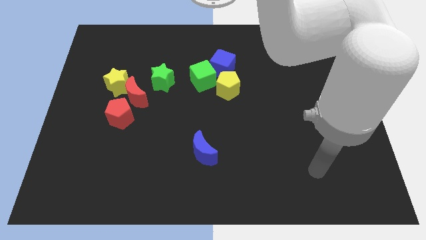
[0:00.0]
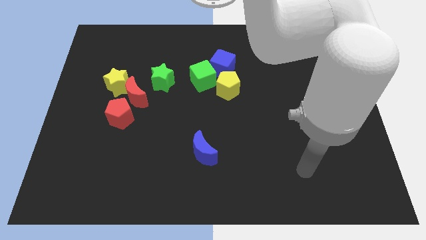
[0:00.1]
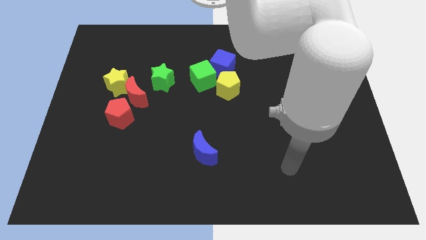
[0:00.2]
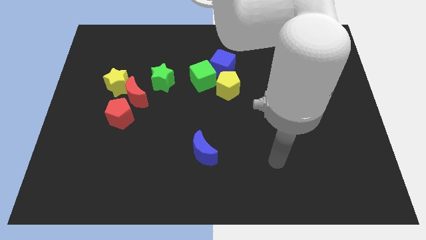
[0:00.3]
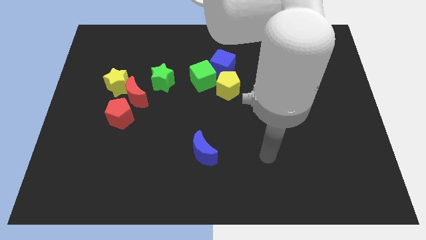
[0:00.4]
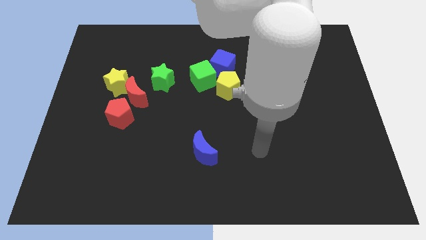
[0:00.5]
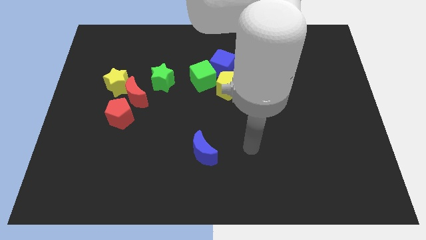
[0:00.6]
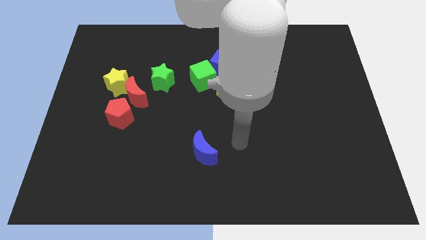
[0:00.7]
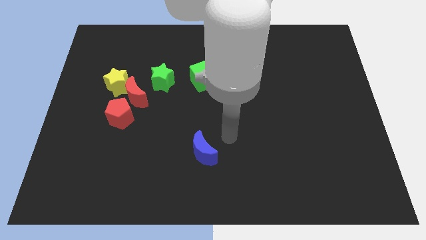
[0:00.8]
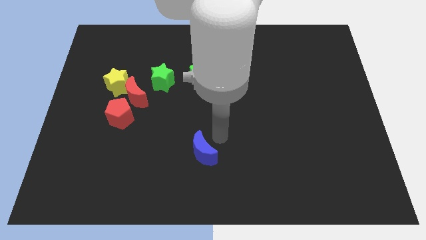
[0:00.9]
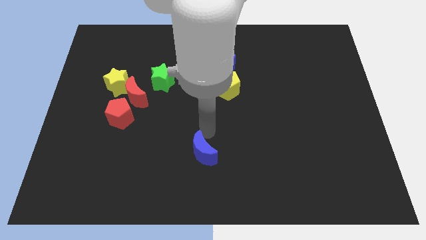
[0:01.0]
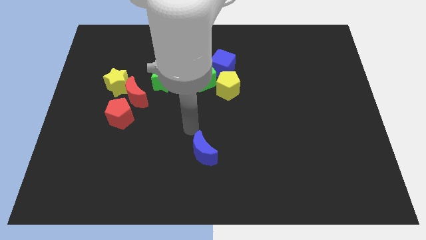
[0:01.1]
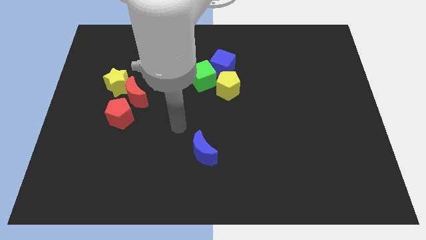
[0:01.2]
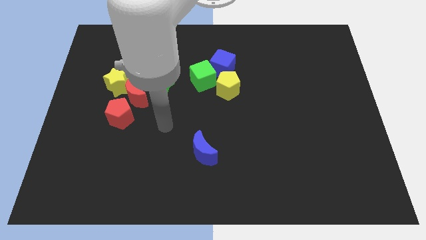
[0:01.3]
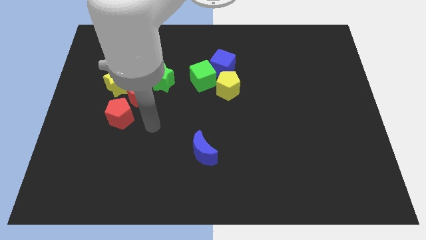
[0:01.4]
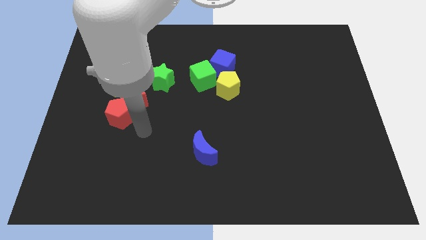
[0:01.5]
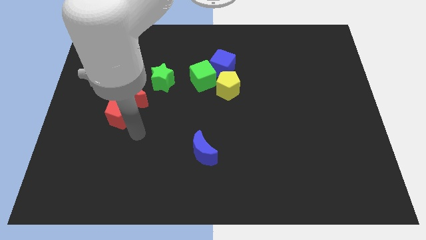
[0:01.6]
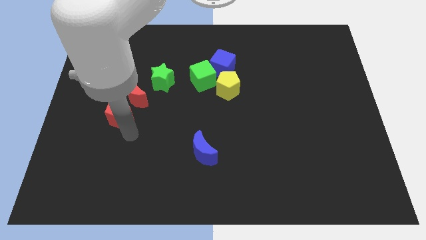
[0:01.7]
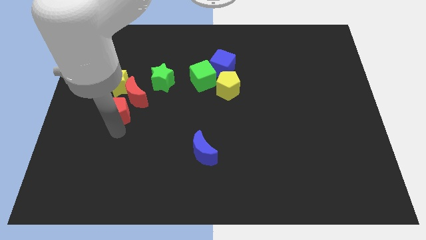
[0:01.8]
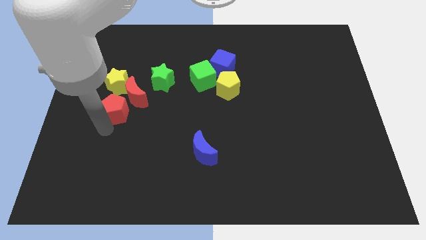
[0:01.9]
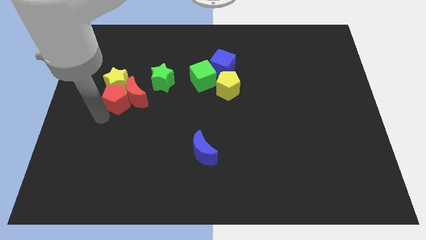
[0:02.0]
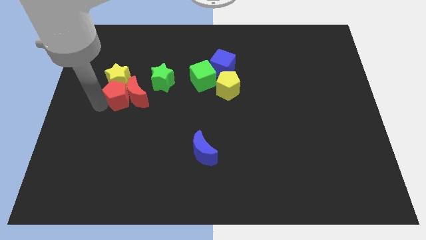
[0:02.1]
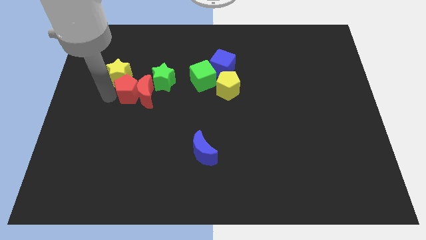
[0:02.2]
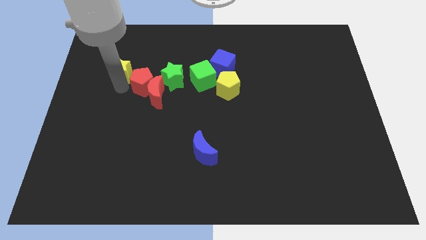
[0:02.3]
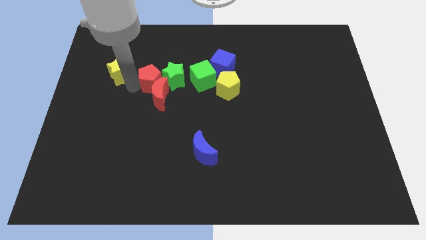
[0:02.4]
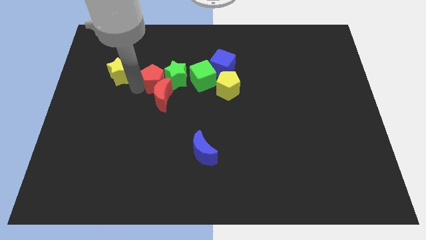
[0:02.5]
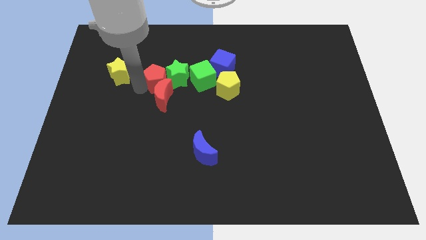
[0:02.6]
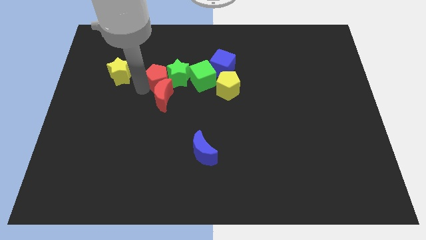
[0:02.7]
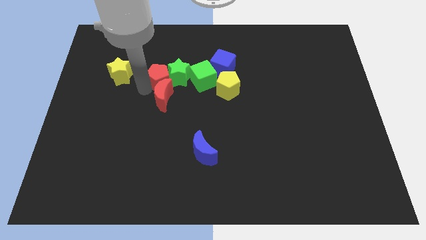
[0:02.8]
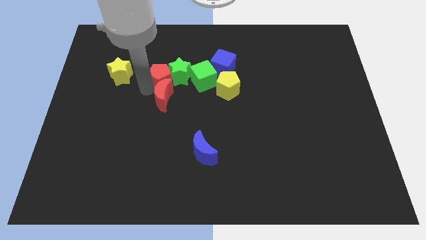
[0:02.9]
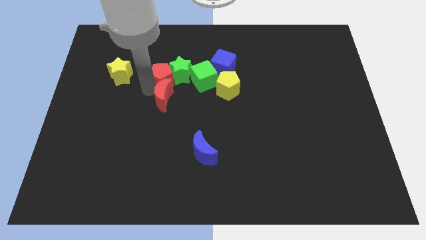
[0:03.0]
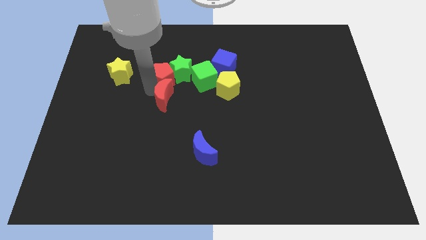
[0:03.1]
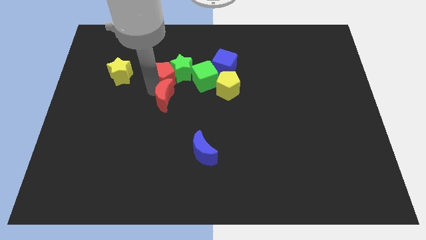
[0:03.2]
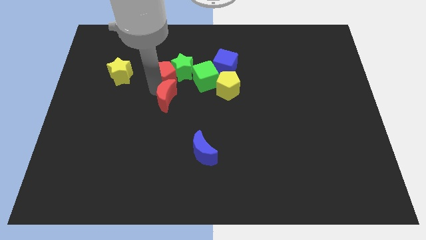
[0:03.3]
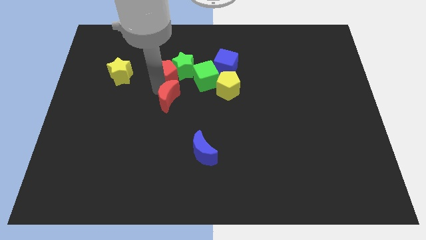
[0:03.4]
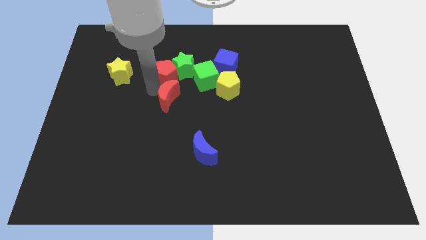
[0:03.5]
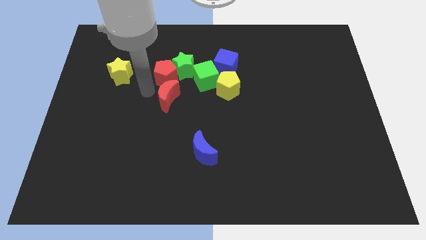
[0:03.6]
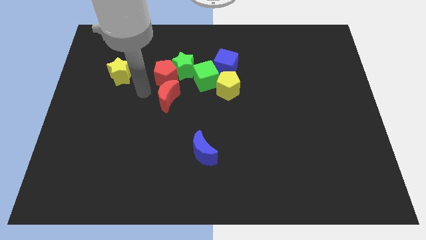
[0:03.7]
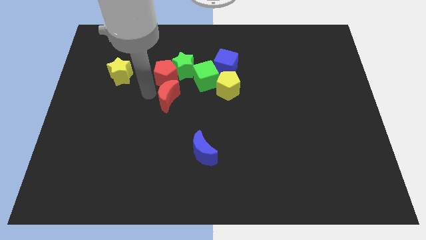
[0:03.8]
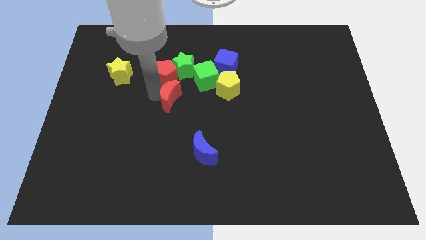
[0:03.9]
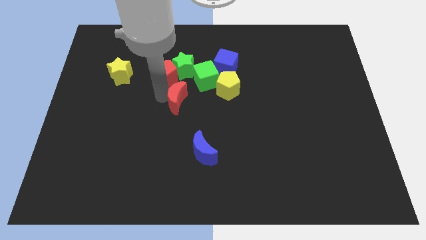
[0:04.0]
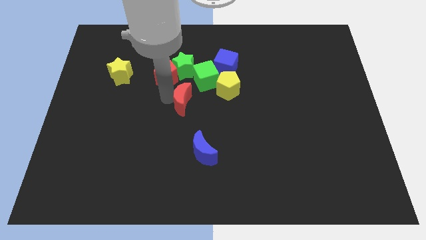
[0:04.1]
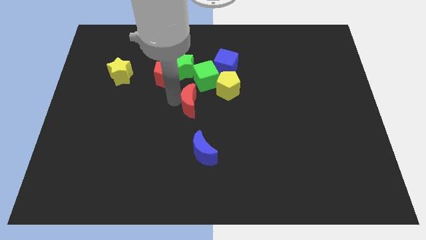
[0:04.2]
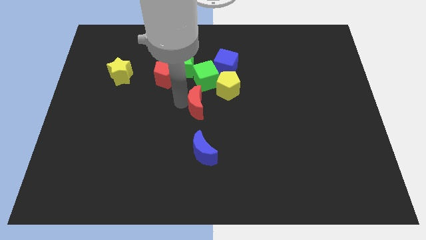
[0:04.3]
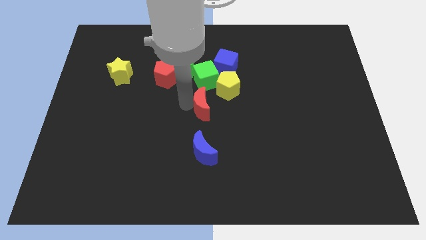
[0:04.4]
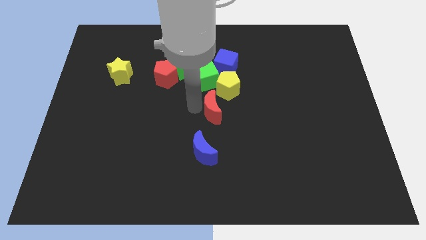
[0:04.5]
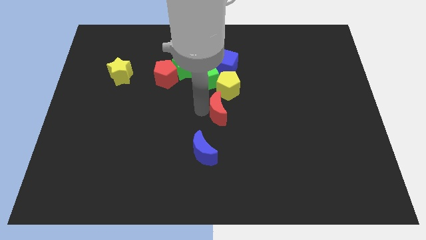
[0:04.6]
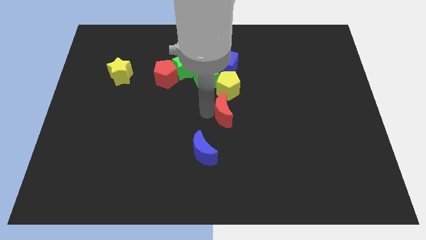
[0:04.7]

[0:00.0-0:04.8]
slide the red moon to the right

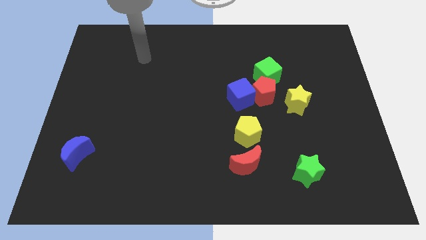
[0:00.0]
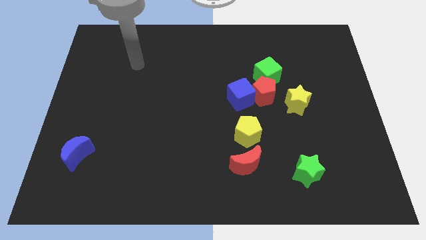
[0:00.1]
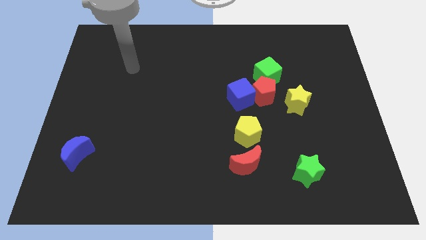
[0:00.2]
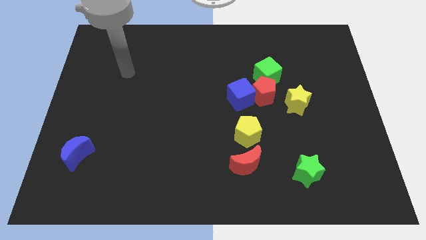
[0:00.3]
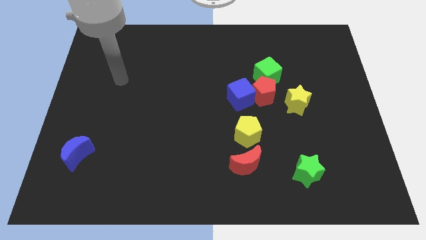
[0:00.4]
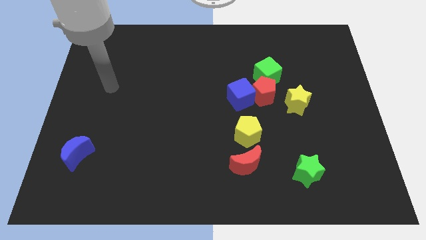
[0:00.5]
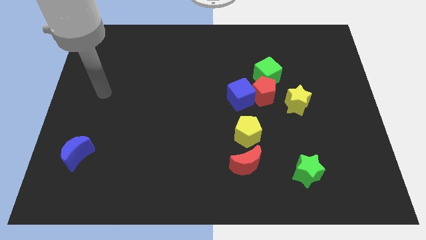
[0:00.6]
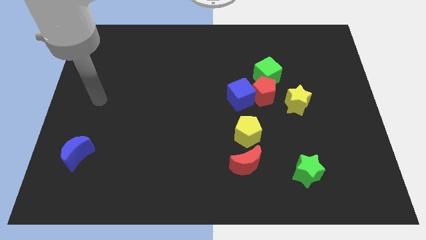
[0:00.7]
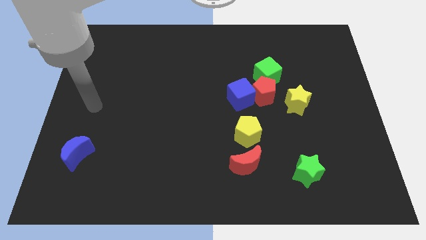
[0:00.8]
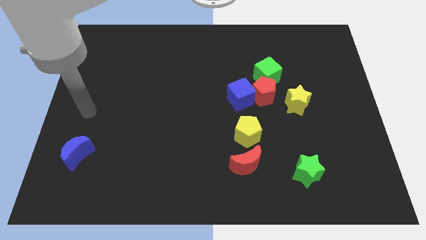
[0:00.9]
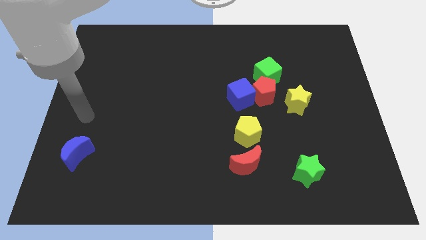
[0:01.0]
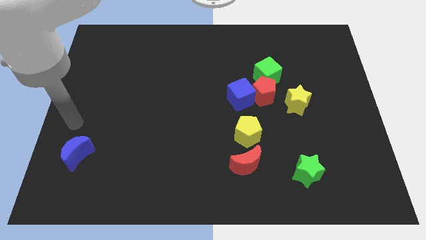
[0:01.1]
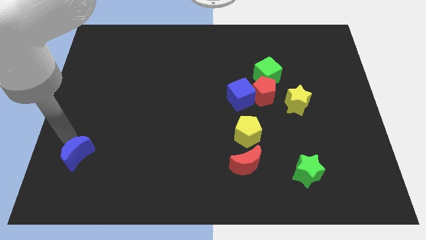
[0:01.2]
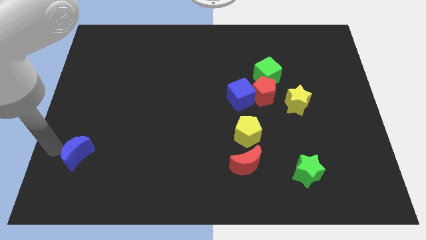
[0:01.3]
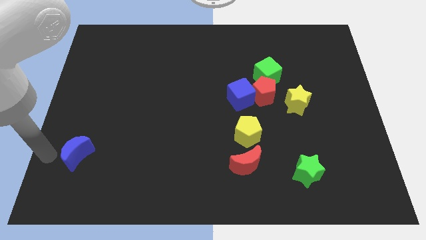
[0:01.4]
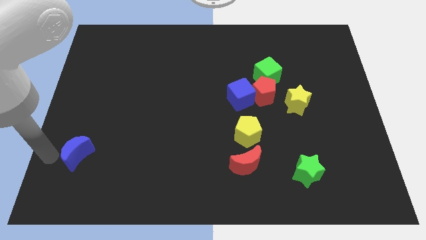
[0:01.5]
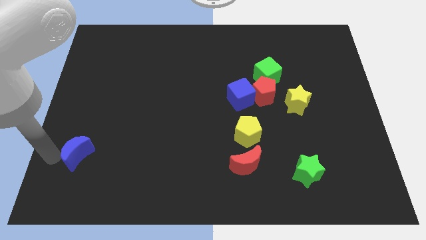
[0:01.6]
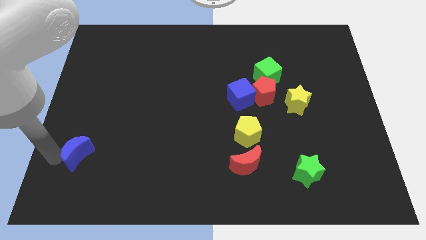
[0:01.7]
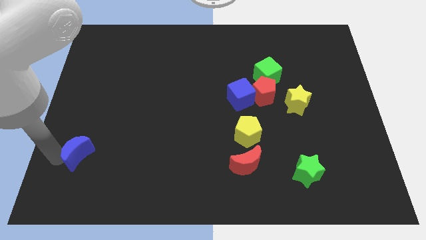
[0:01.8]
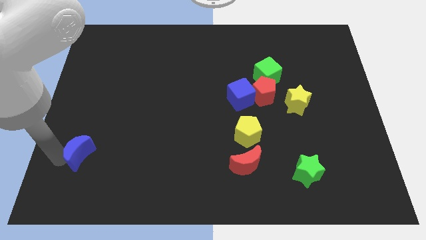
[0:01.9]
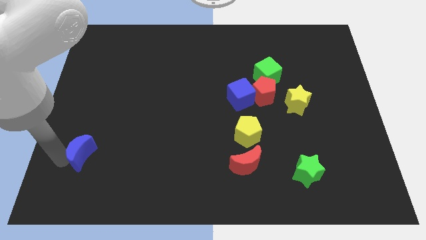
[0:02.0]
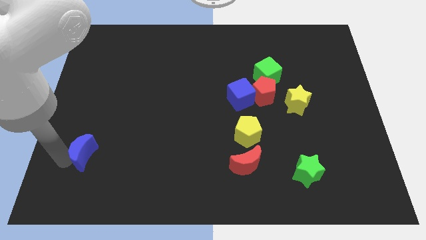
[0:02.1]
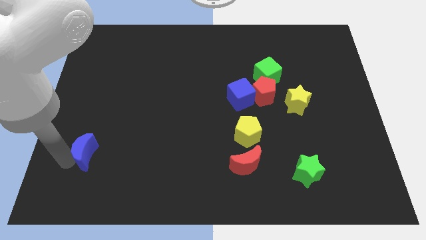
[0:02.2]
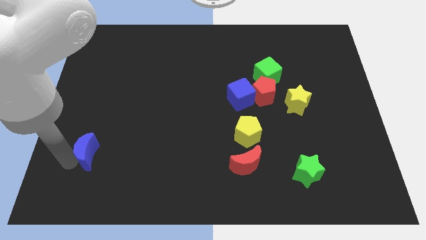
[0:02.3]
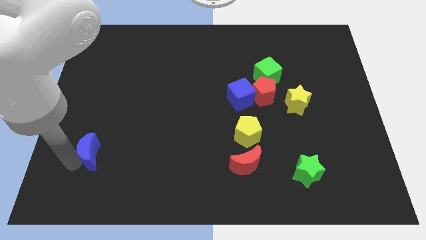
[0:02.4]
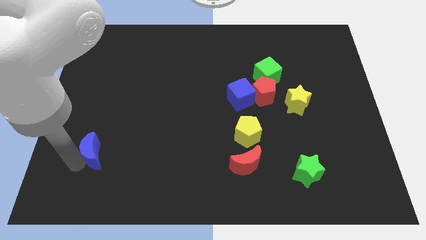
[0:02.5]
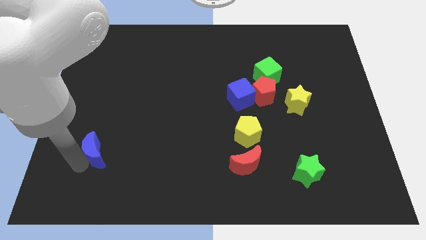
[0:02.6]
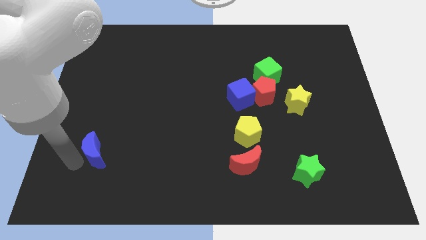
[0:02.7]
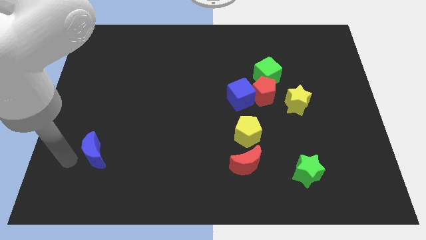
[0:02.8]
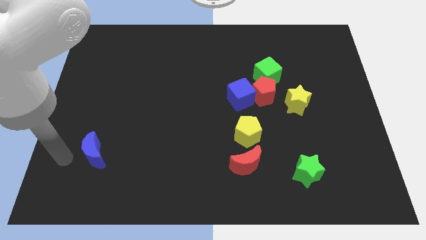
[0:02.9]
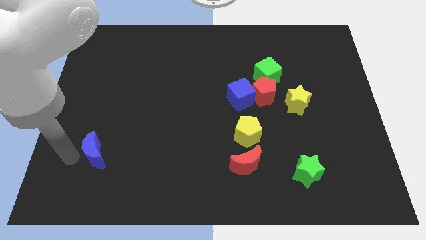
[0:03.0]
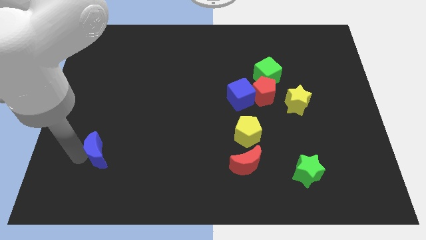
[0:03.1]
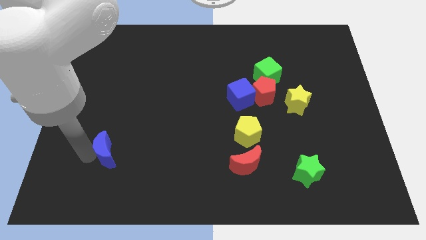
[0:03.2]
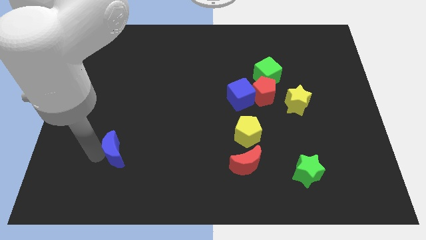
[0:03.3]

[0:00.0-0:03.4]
slightly push the blue moon right
